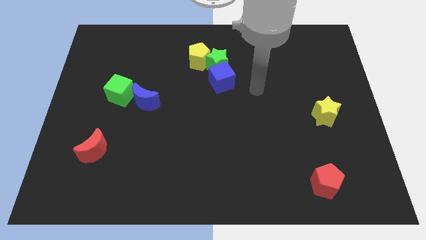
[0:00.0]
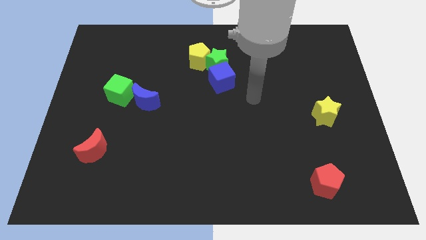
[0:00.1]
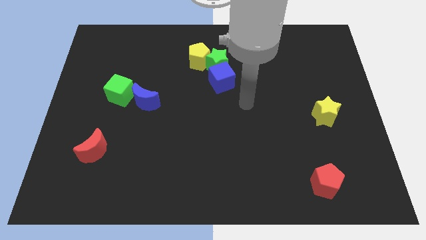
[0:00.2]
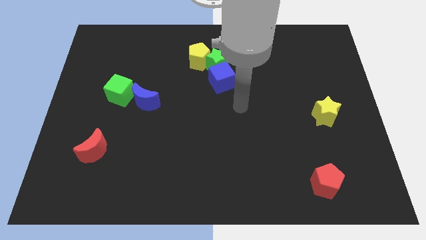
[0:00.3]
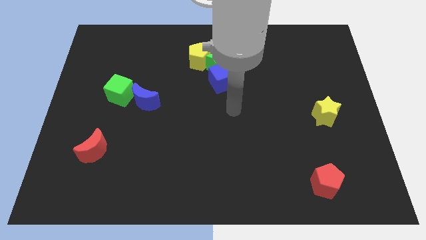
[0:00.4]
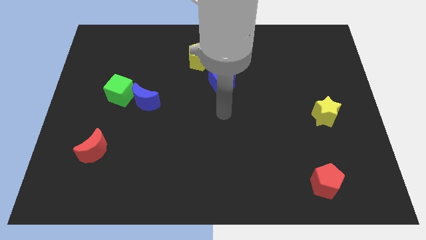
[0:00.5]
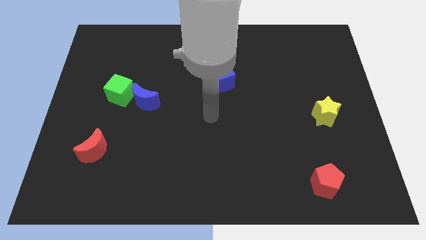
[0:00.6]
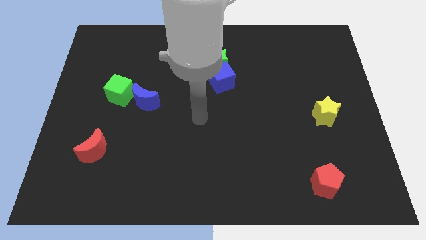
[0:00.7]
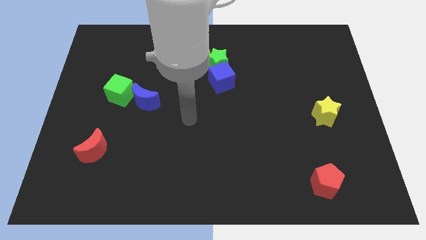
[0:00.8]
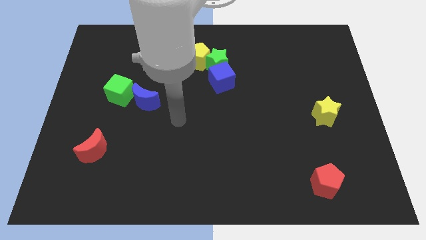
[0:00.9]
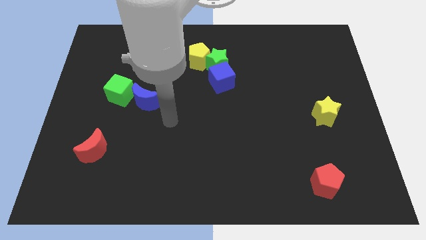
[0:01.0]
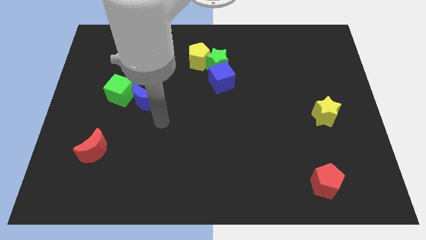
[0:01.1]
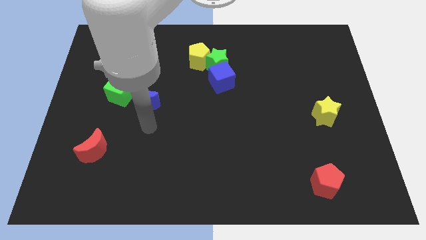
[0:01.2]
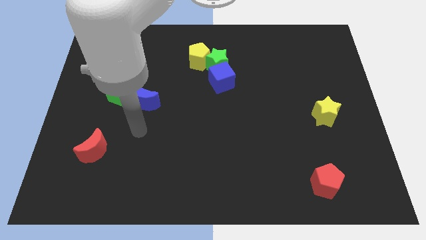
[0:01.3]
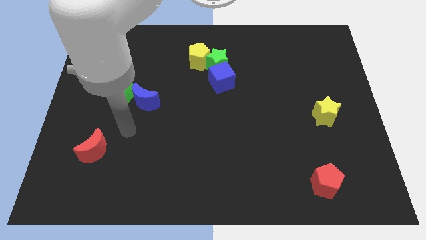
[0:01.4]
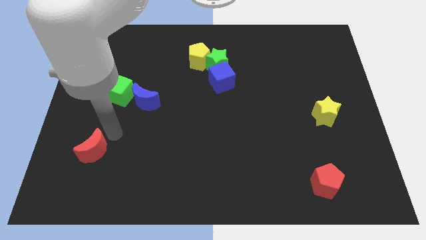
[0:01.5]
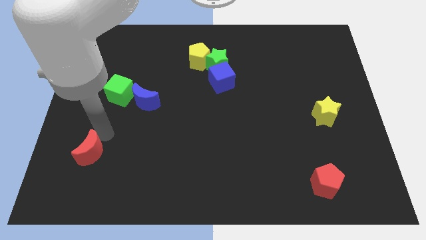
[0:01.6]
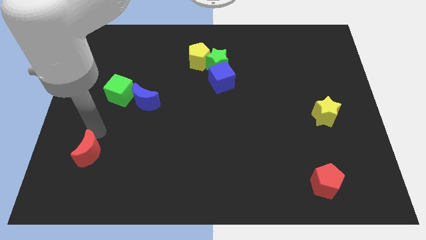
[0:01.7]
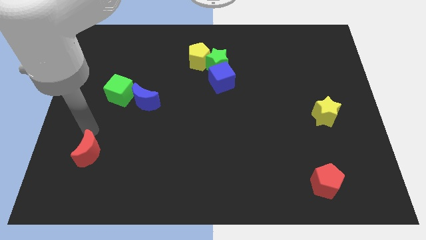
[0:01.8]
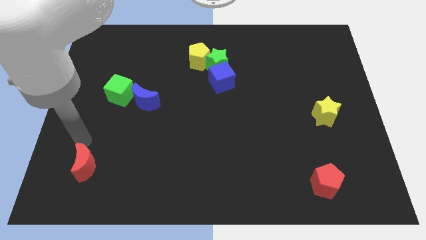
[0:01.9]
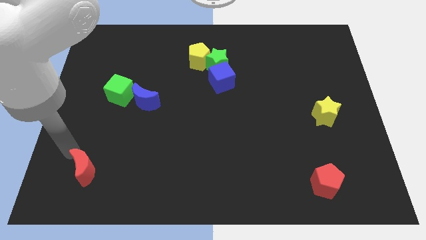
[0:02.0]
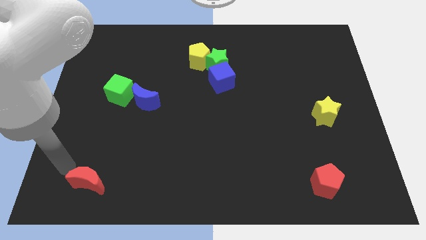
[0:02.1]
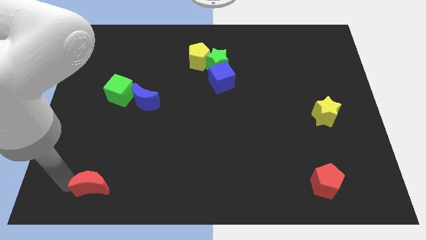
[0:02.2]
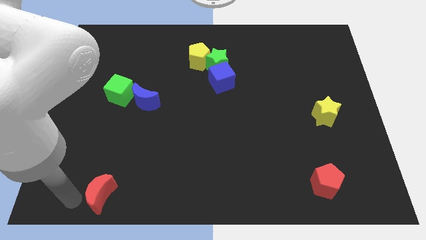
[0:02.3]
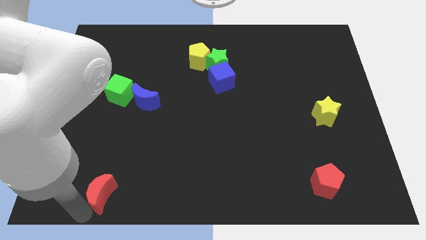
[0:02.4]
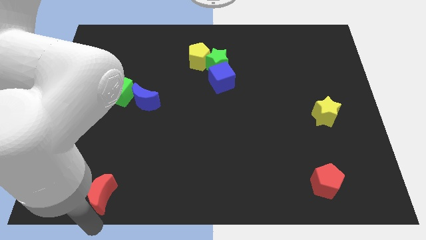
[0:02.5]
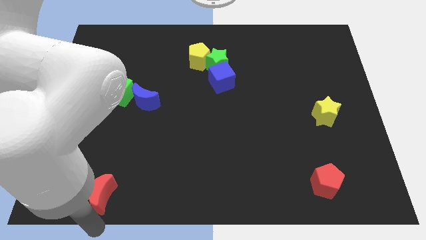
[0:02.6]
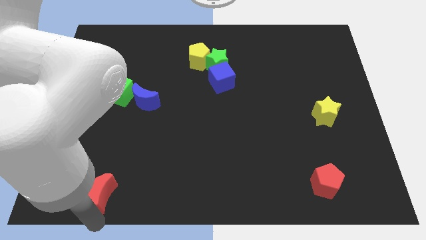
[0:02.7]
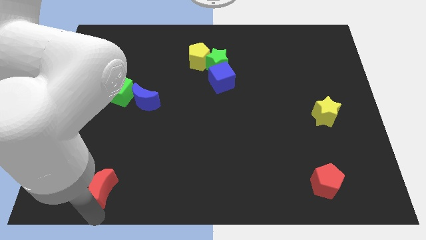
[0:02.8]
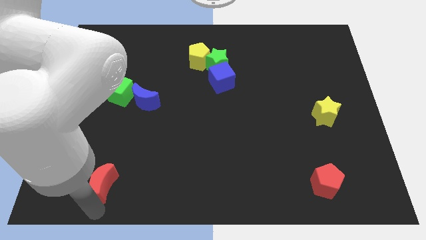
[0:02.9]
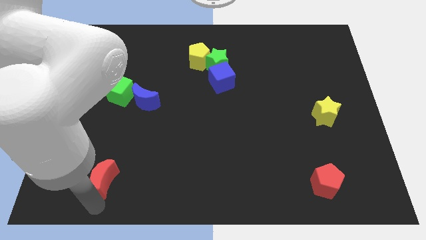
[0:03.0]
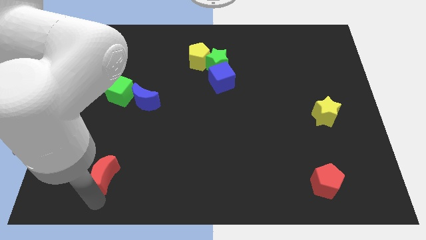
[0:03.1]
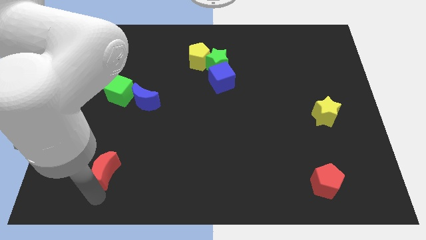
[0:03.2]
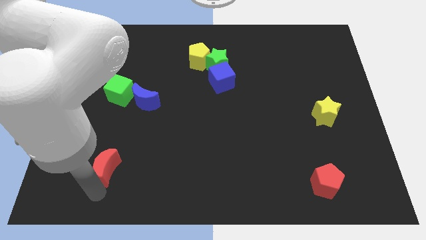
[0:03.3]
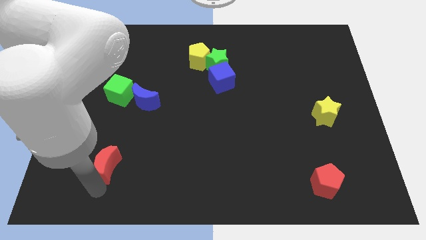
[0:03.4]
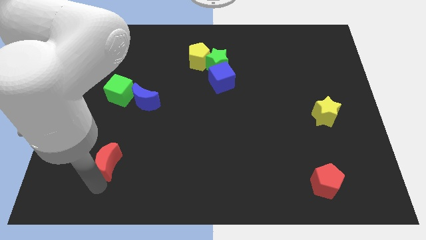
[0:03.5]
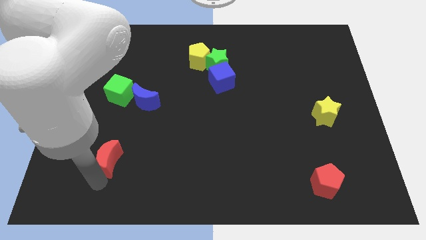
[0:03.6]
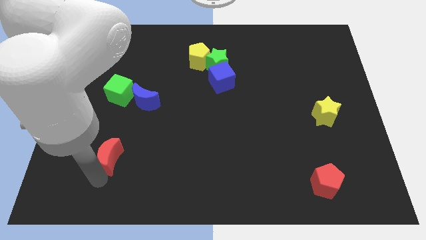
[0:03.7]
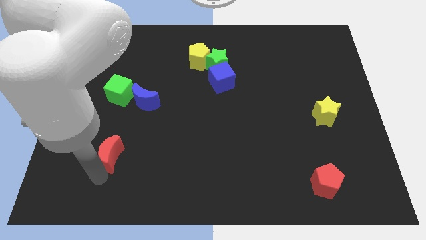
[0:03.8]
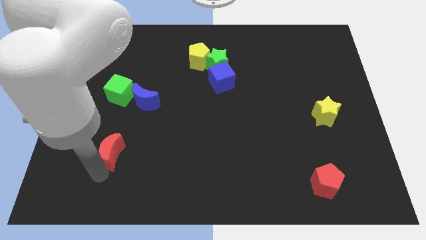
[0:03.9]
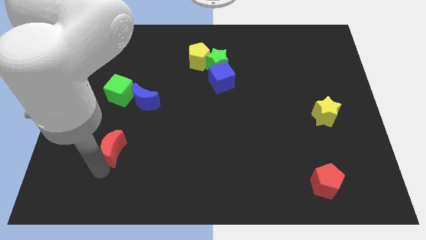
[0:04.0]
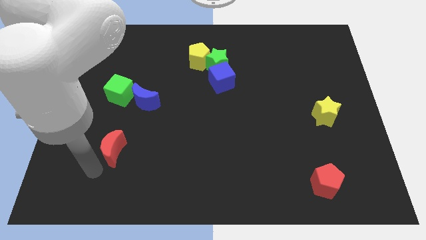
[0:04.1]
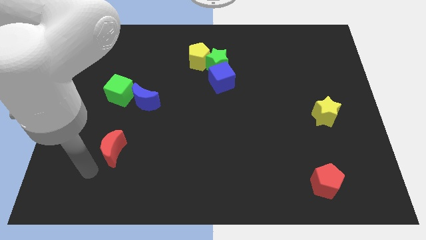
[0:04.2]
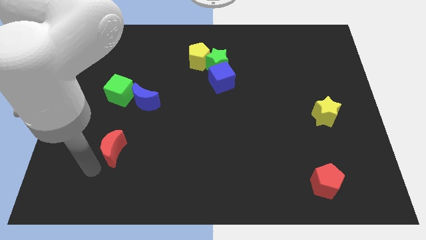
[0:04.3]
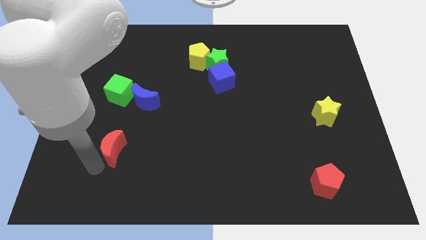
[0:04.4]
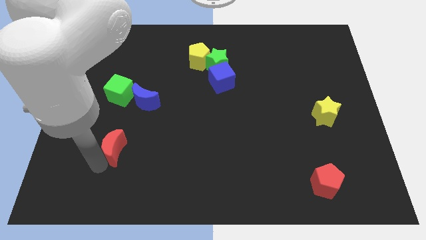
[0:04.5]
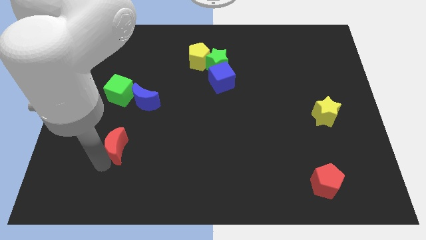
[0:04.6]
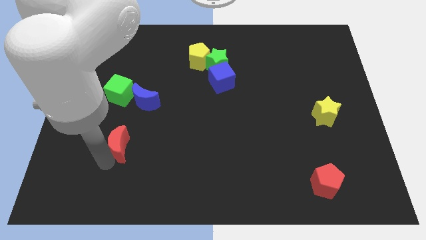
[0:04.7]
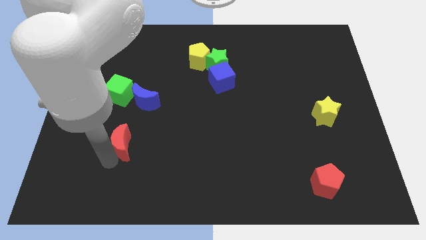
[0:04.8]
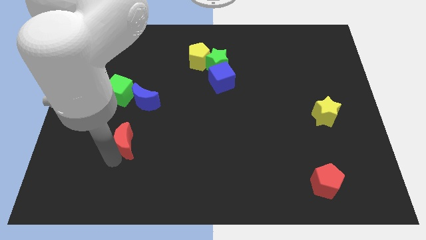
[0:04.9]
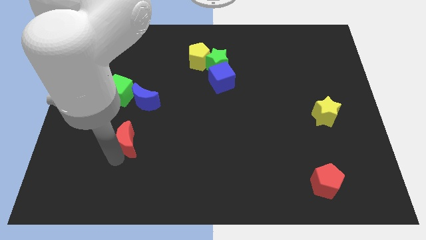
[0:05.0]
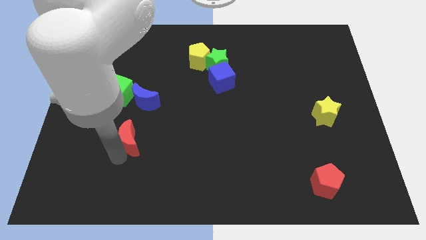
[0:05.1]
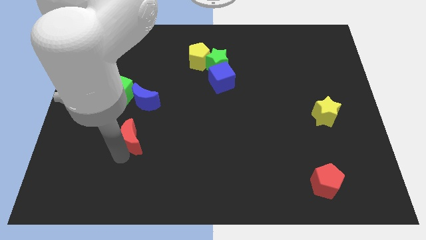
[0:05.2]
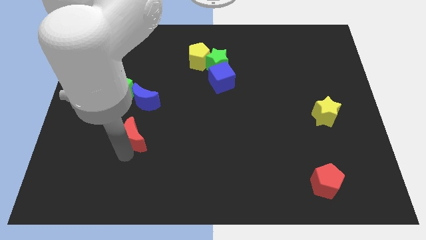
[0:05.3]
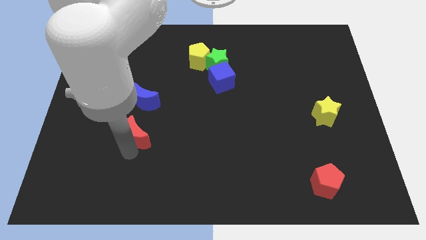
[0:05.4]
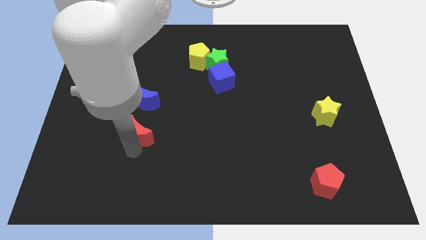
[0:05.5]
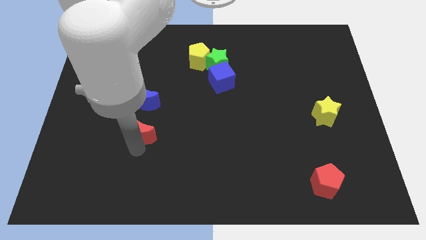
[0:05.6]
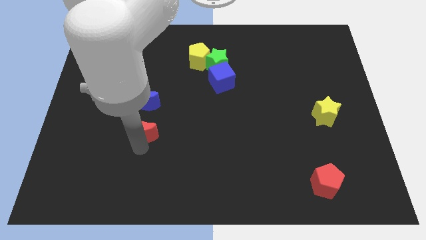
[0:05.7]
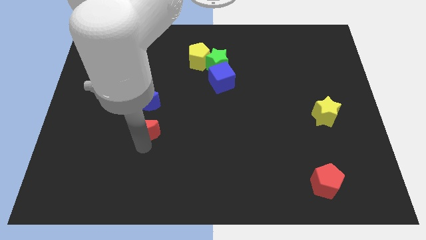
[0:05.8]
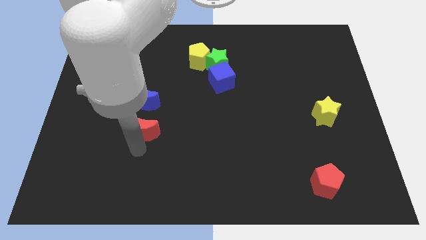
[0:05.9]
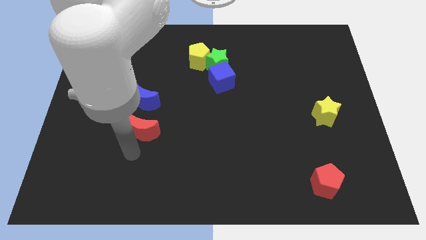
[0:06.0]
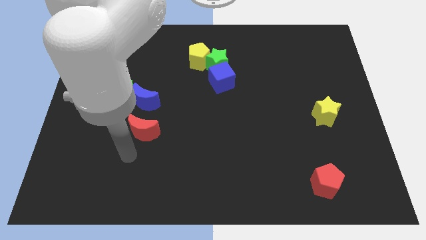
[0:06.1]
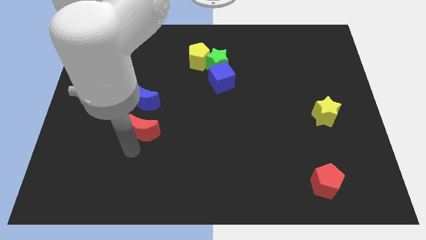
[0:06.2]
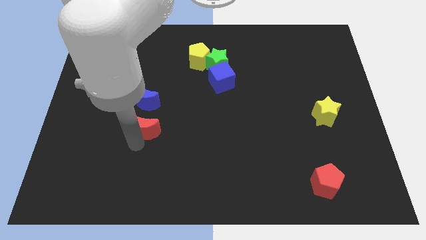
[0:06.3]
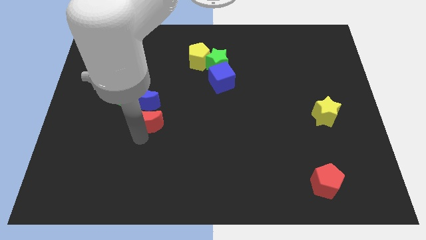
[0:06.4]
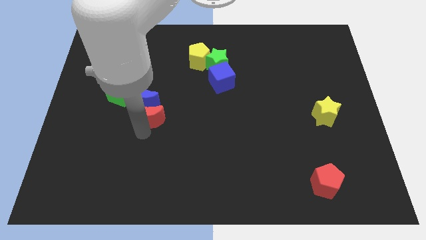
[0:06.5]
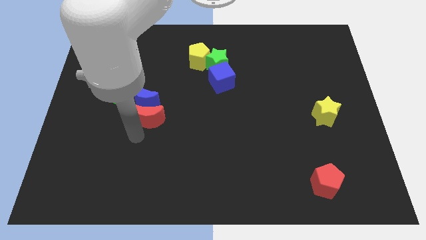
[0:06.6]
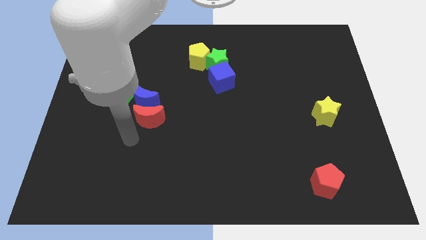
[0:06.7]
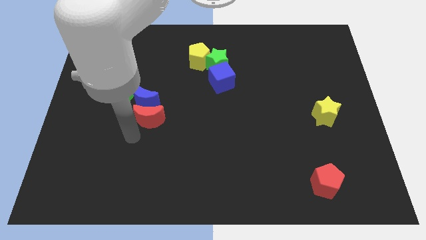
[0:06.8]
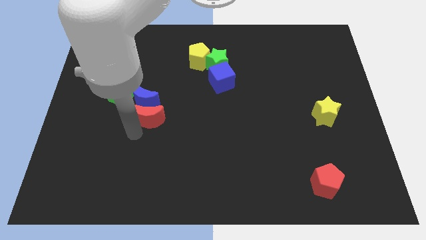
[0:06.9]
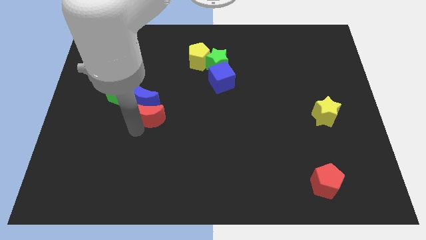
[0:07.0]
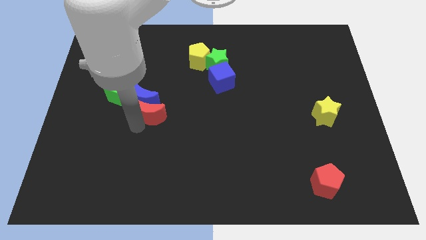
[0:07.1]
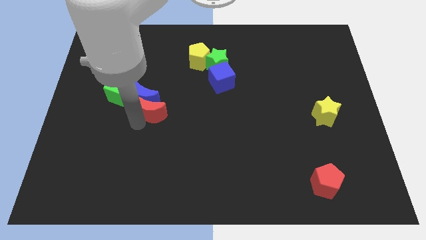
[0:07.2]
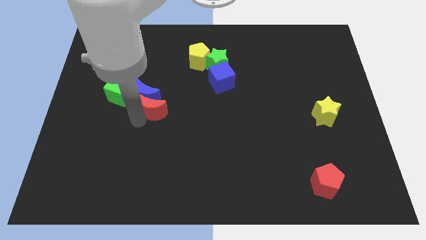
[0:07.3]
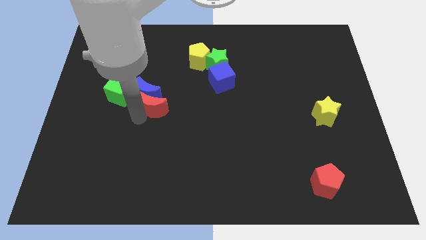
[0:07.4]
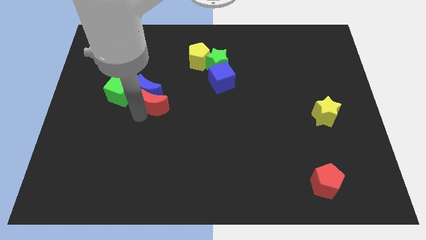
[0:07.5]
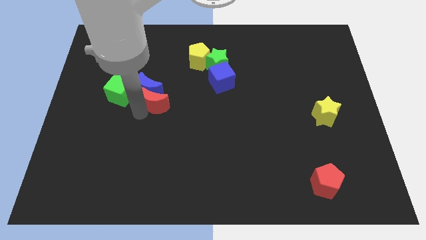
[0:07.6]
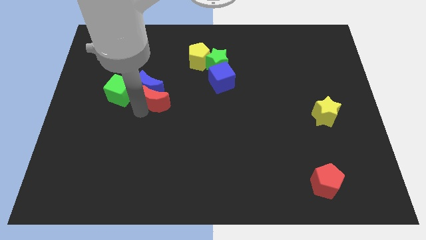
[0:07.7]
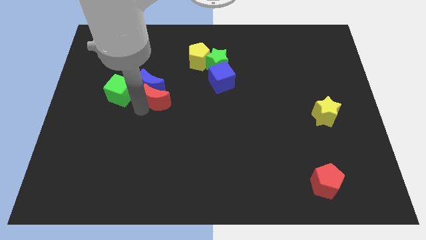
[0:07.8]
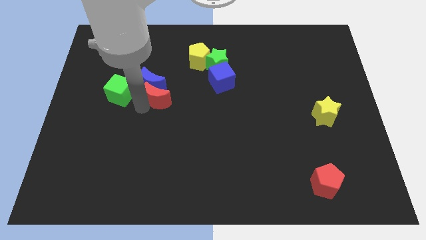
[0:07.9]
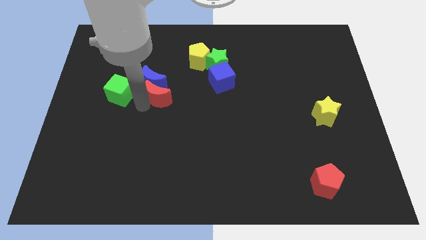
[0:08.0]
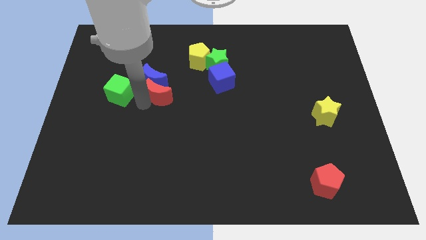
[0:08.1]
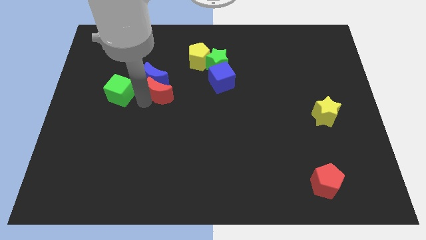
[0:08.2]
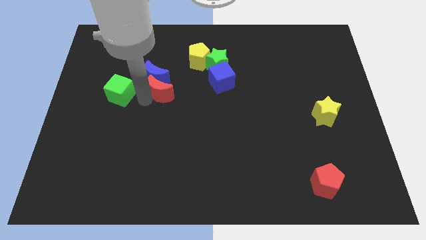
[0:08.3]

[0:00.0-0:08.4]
move the red moon upwards and to the right diagonally
